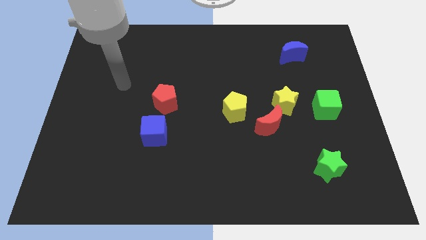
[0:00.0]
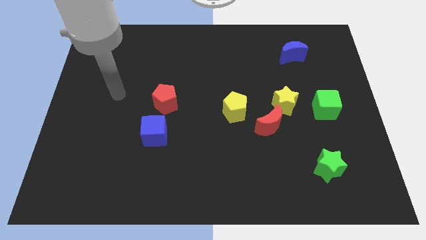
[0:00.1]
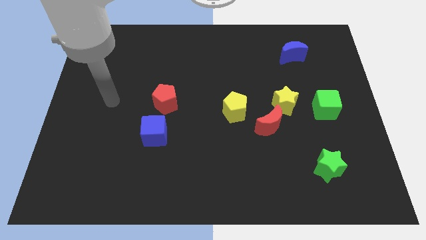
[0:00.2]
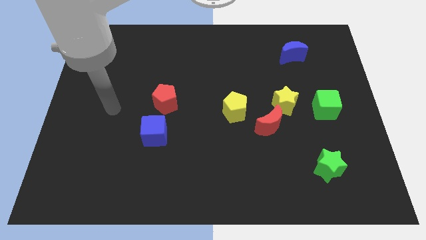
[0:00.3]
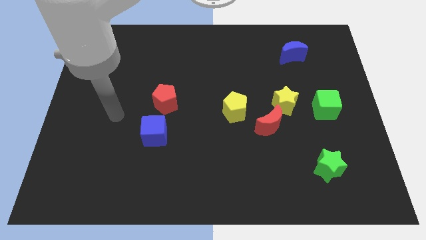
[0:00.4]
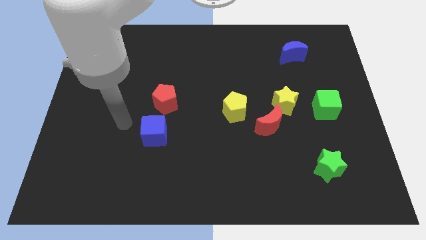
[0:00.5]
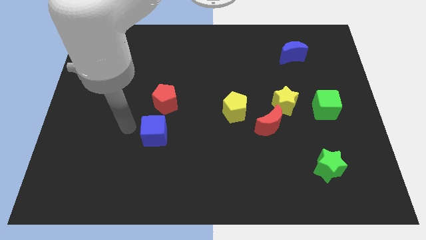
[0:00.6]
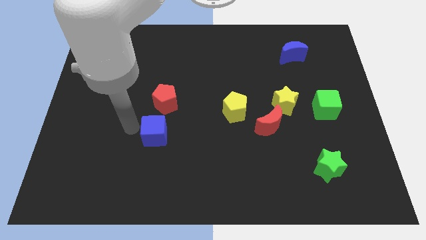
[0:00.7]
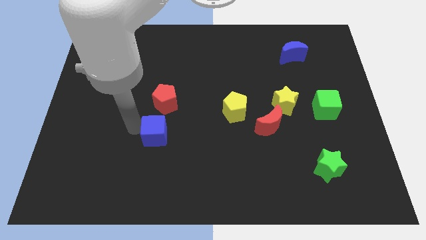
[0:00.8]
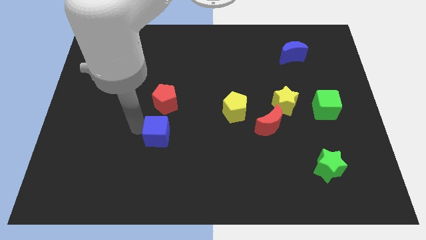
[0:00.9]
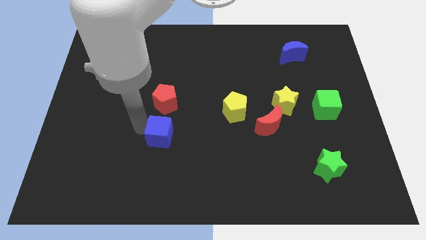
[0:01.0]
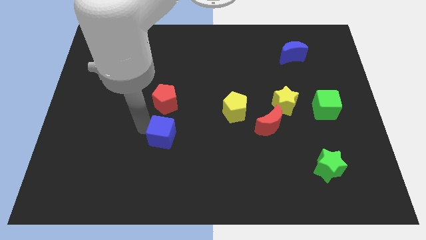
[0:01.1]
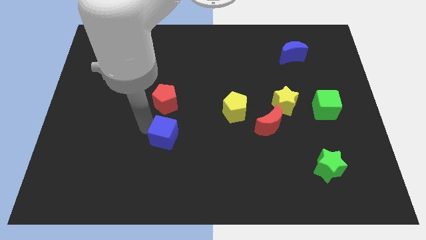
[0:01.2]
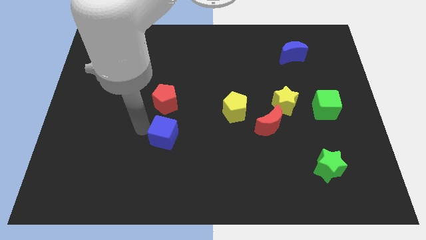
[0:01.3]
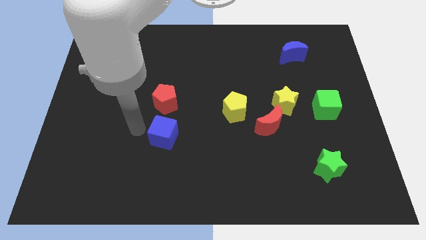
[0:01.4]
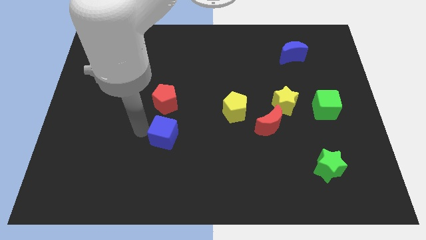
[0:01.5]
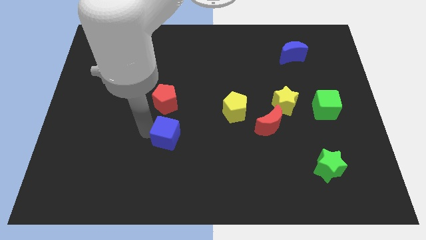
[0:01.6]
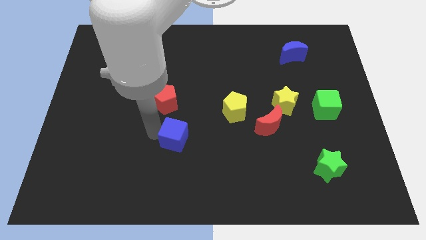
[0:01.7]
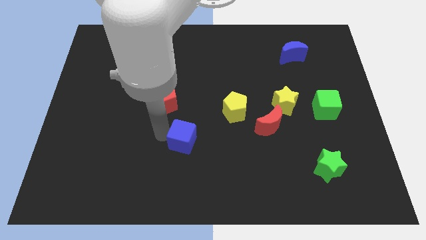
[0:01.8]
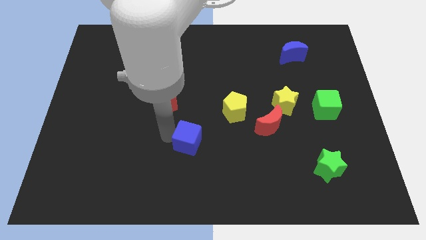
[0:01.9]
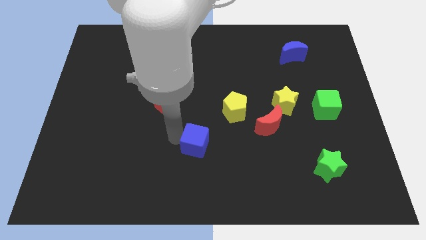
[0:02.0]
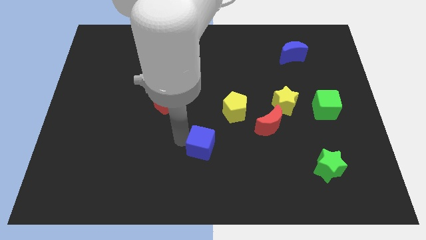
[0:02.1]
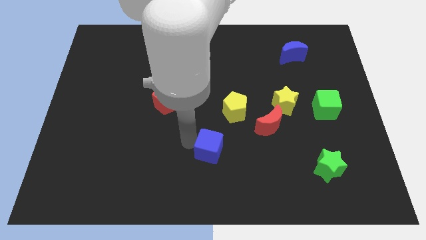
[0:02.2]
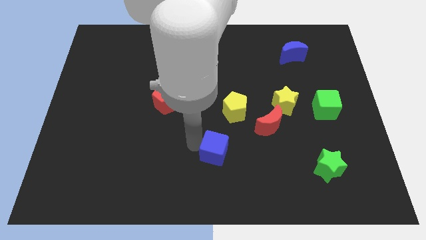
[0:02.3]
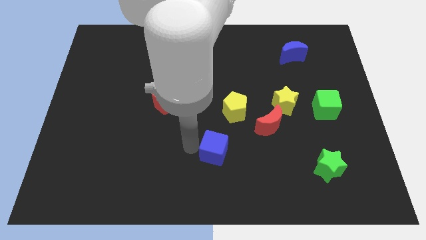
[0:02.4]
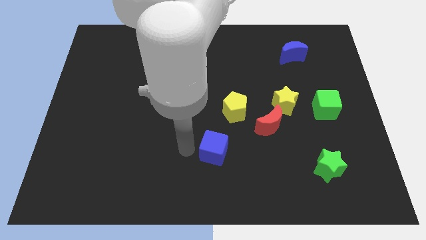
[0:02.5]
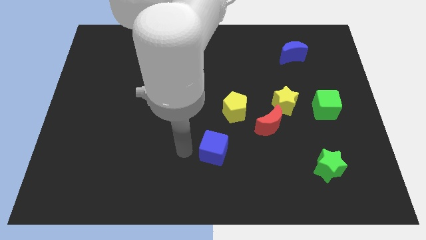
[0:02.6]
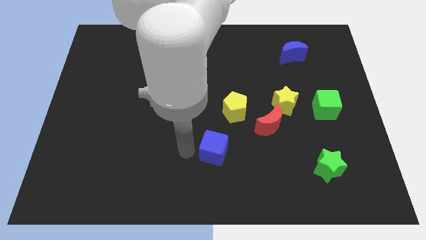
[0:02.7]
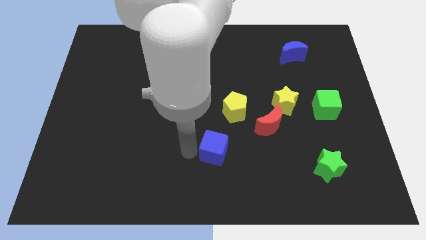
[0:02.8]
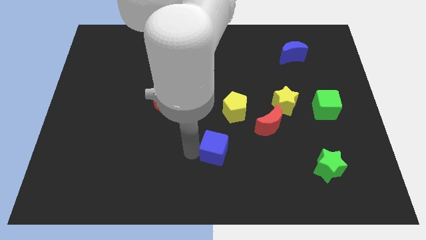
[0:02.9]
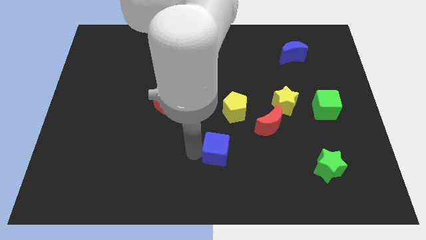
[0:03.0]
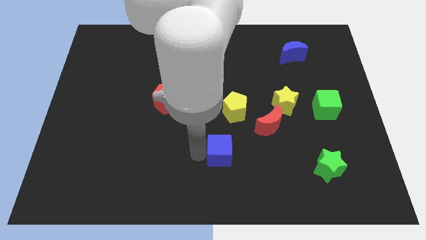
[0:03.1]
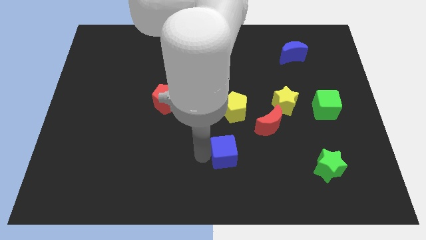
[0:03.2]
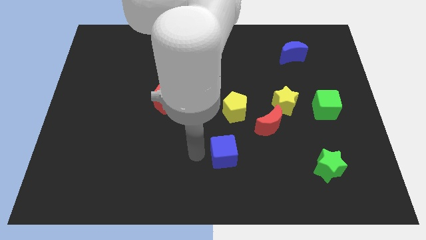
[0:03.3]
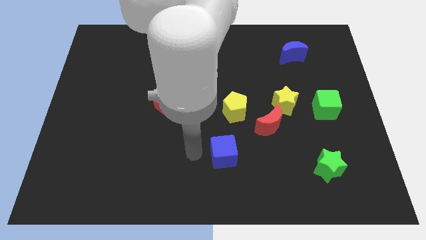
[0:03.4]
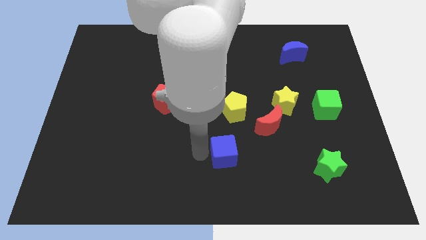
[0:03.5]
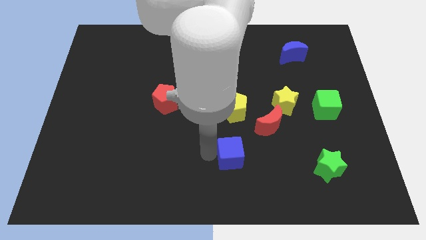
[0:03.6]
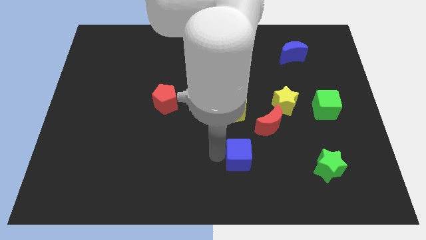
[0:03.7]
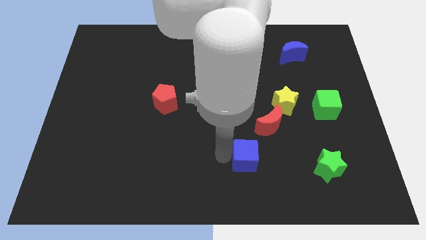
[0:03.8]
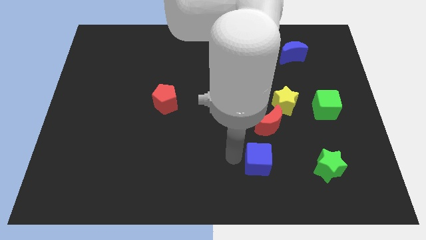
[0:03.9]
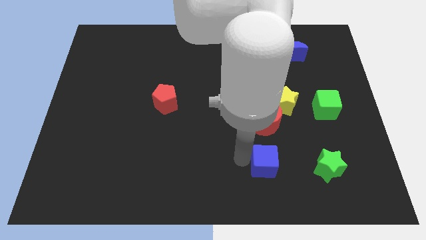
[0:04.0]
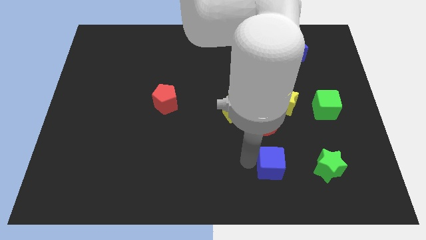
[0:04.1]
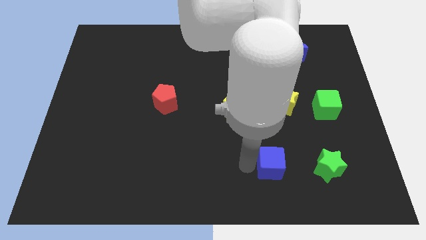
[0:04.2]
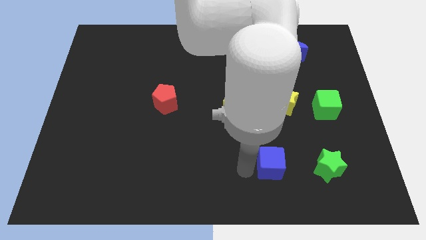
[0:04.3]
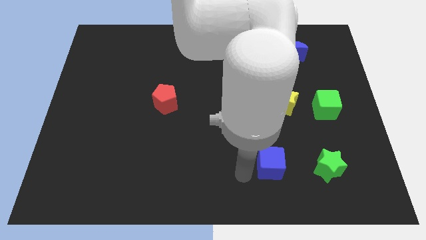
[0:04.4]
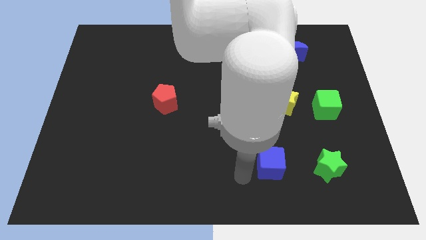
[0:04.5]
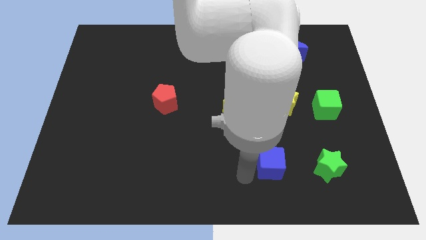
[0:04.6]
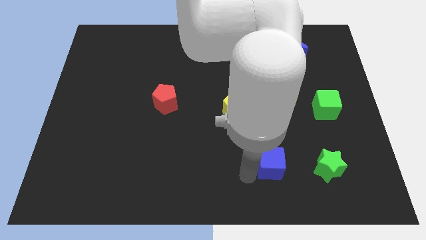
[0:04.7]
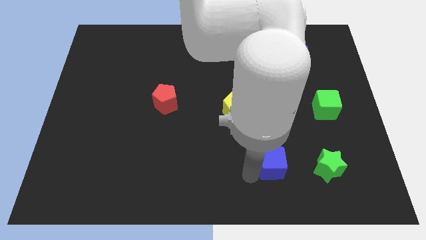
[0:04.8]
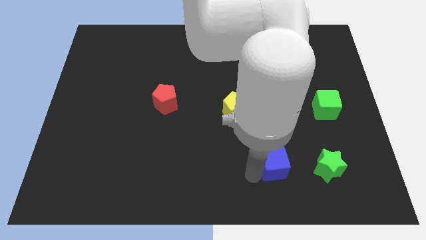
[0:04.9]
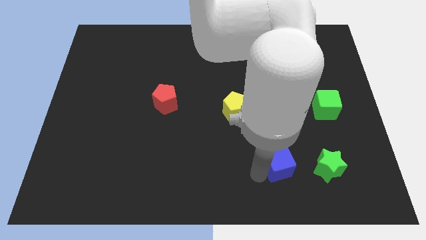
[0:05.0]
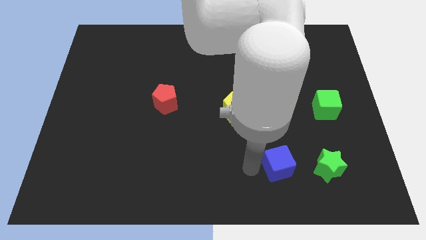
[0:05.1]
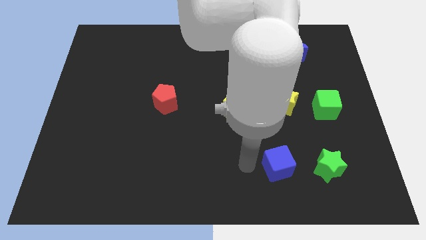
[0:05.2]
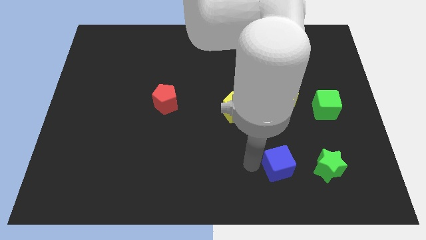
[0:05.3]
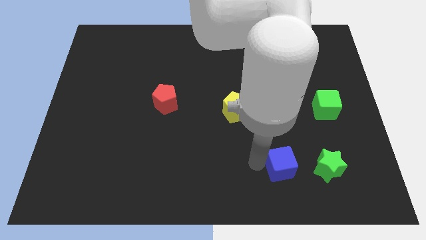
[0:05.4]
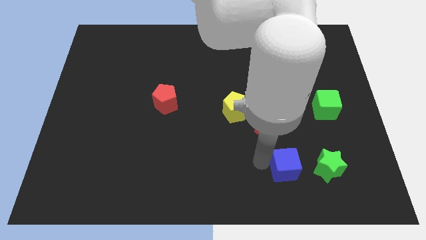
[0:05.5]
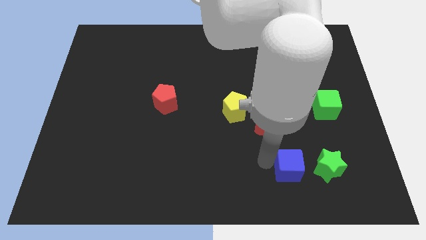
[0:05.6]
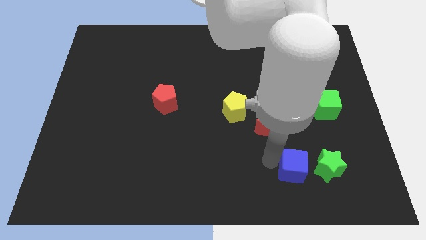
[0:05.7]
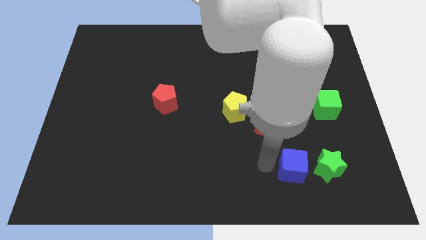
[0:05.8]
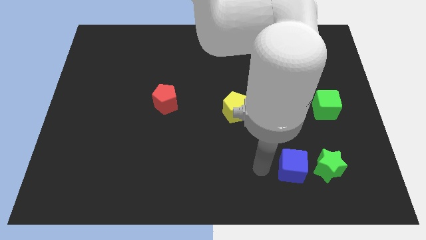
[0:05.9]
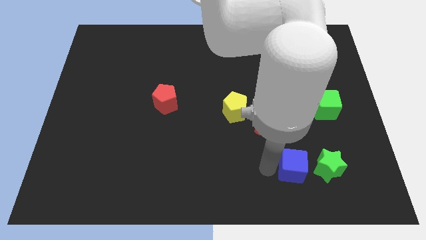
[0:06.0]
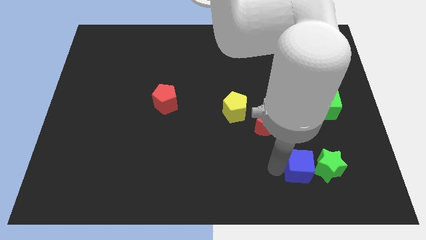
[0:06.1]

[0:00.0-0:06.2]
push the blue cube close to the green star

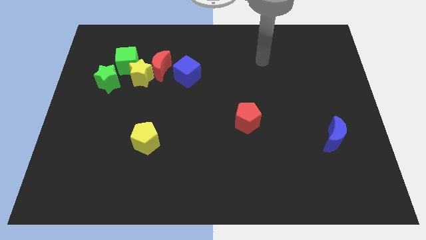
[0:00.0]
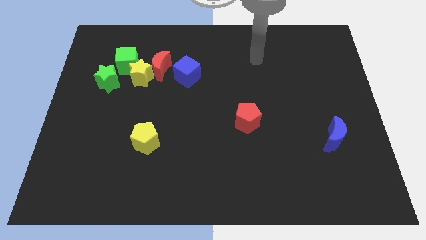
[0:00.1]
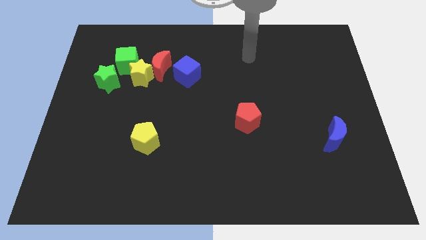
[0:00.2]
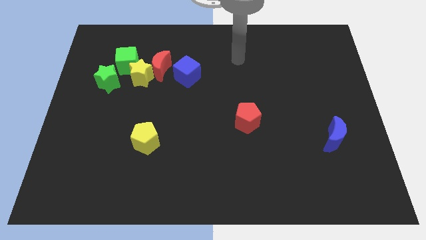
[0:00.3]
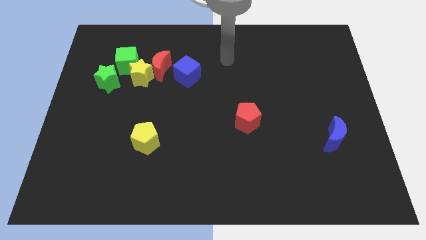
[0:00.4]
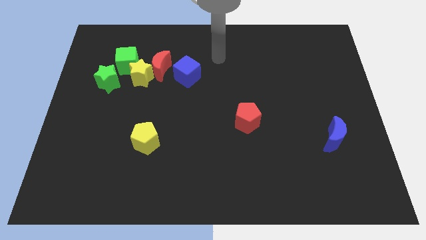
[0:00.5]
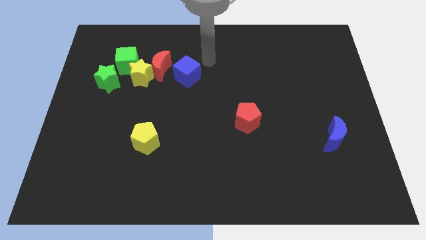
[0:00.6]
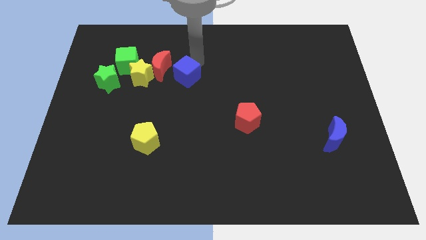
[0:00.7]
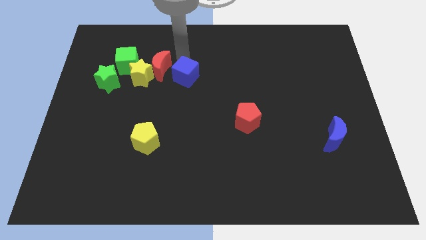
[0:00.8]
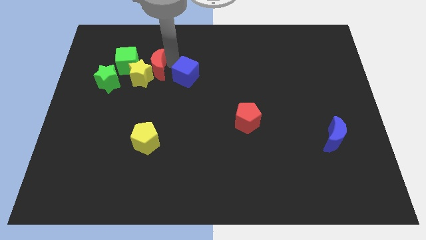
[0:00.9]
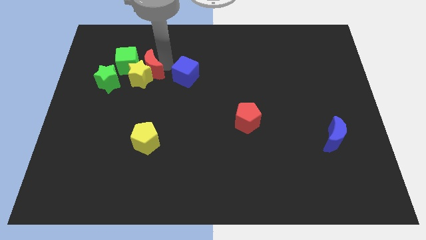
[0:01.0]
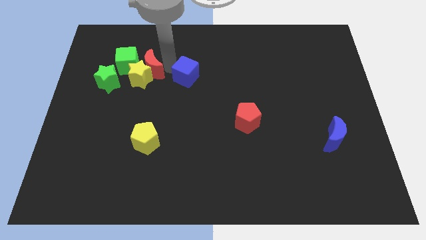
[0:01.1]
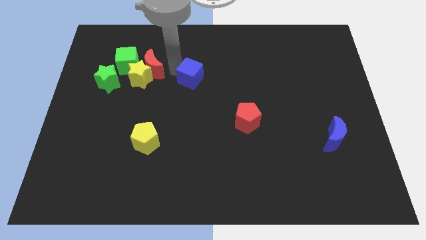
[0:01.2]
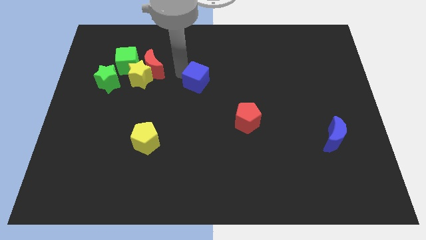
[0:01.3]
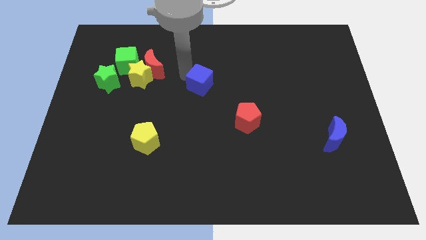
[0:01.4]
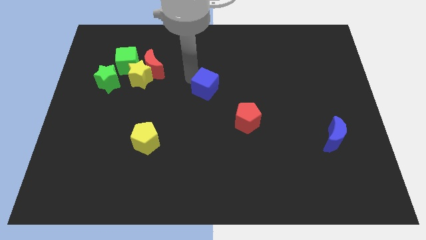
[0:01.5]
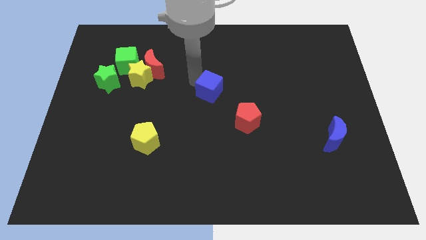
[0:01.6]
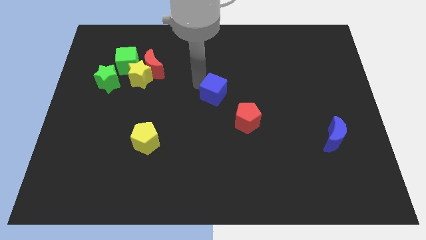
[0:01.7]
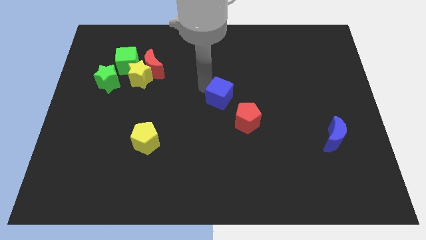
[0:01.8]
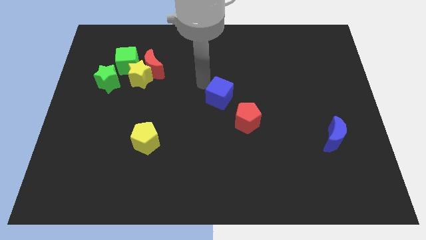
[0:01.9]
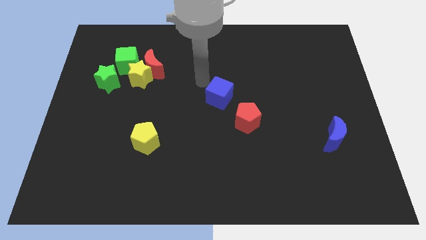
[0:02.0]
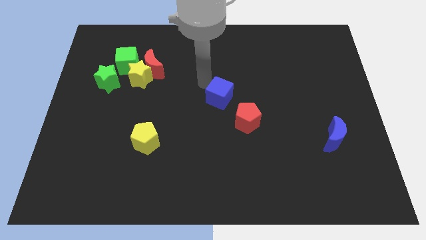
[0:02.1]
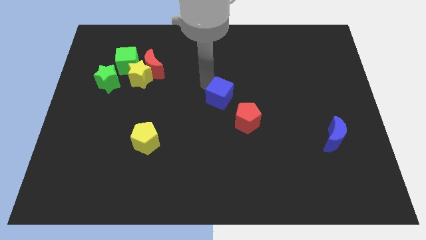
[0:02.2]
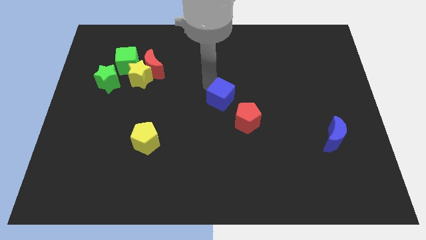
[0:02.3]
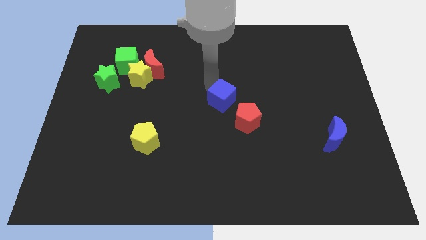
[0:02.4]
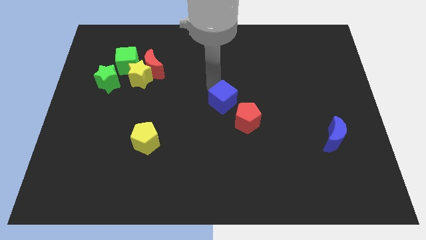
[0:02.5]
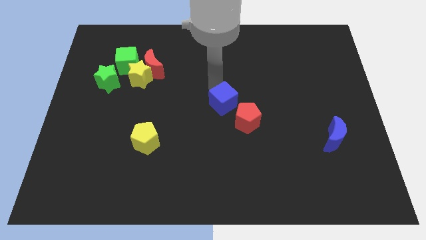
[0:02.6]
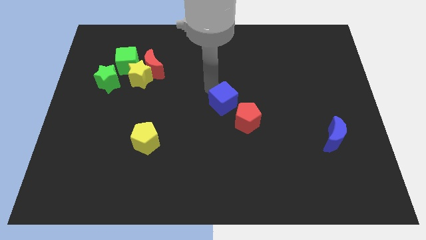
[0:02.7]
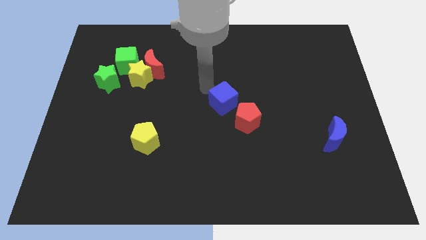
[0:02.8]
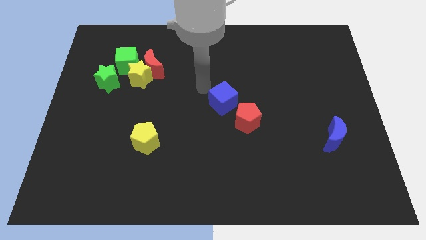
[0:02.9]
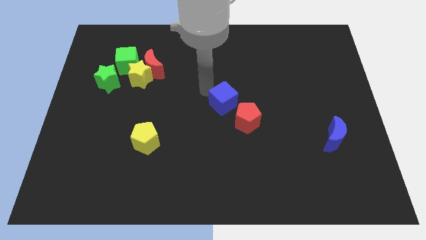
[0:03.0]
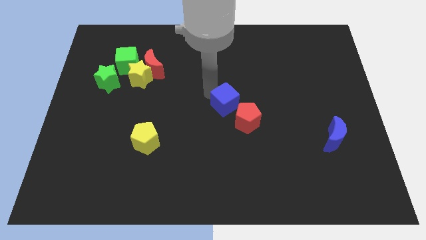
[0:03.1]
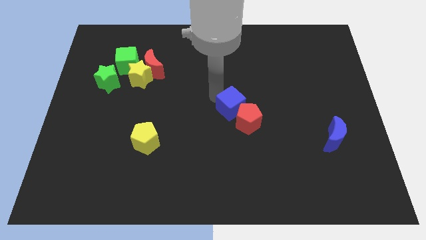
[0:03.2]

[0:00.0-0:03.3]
put the blue cube close to the red pentagon
